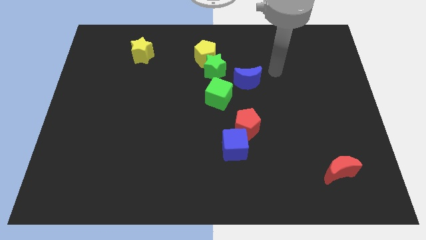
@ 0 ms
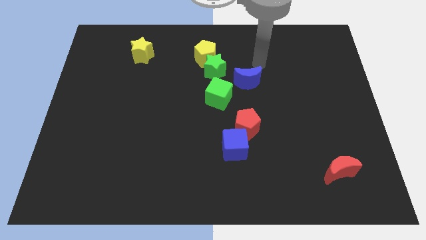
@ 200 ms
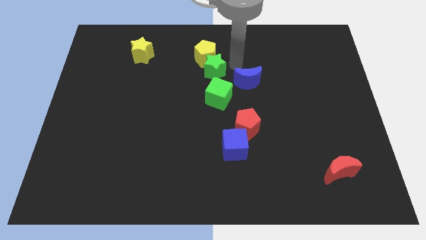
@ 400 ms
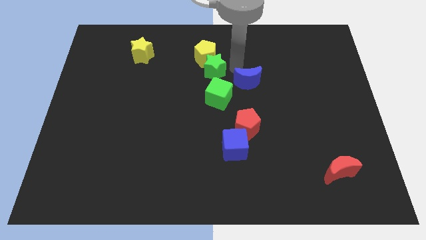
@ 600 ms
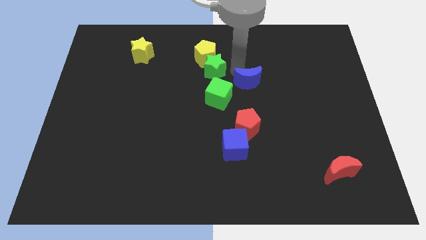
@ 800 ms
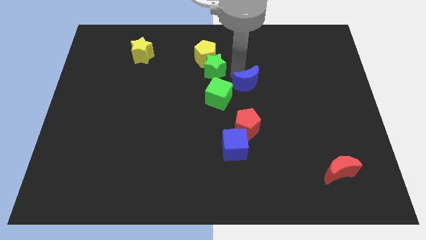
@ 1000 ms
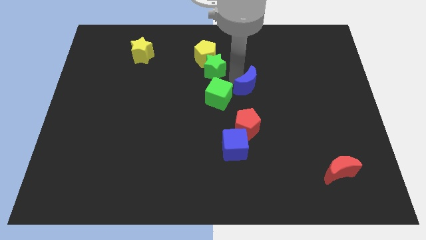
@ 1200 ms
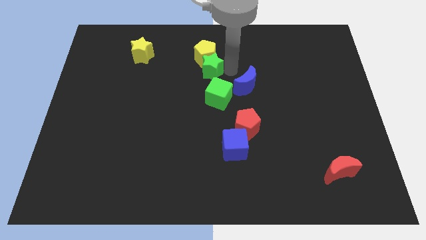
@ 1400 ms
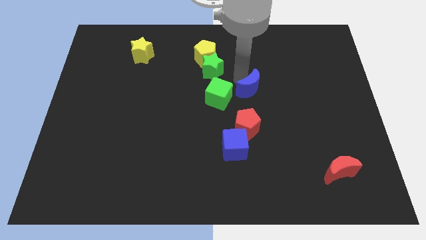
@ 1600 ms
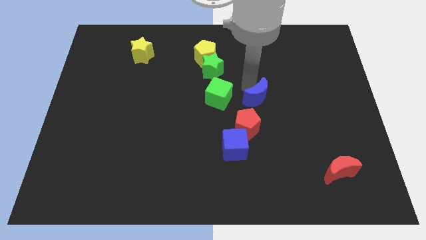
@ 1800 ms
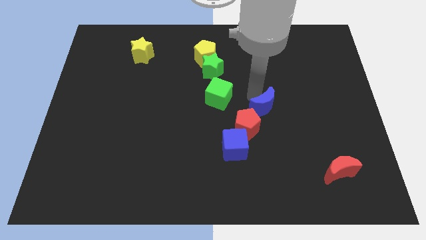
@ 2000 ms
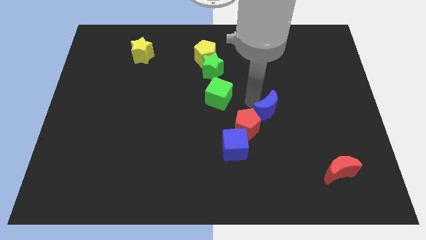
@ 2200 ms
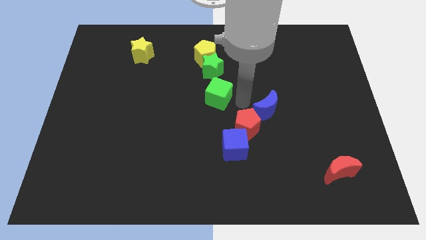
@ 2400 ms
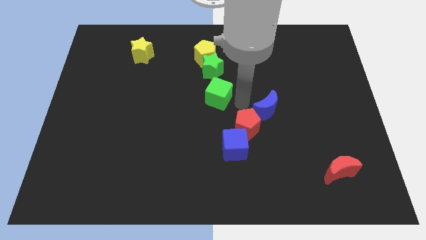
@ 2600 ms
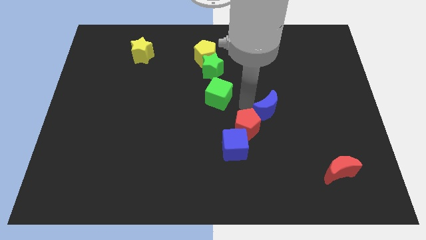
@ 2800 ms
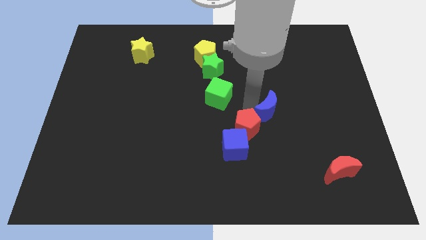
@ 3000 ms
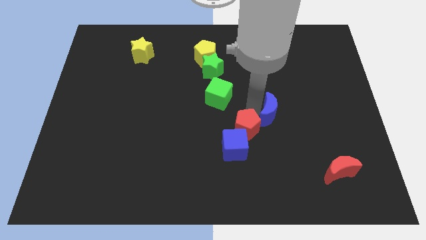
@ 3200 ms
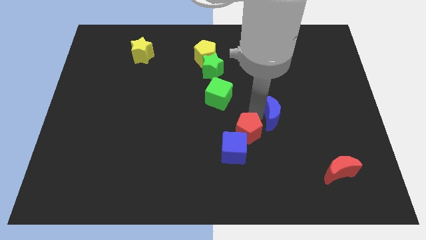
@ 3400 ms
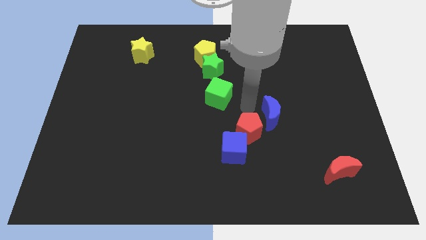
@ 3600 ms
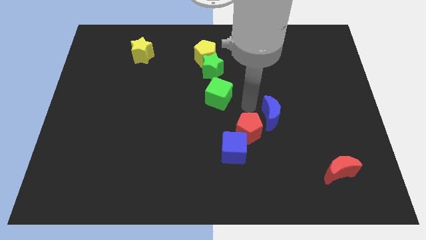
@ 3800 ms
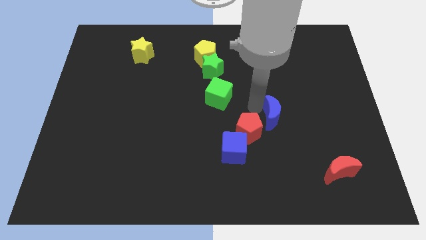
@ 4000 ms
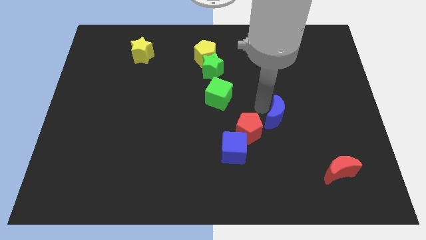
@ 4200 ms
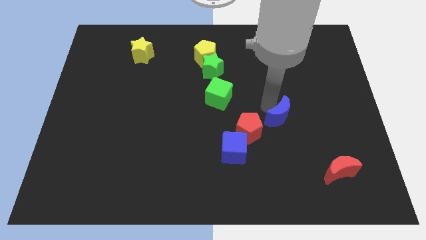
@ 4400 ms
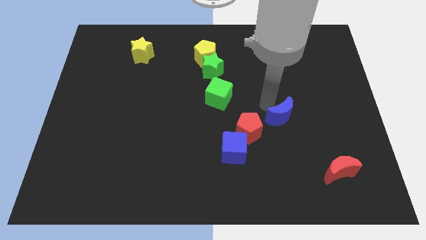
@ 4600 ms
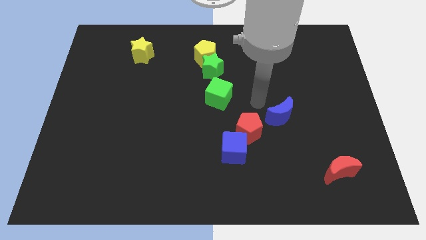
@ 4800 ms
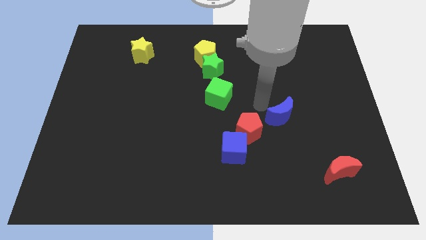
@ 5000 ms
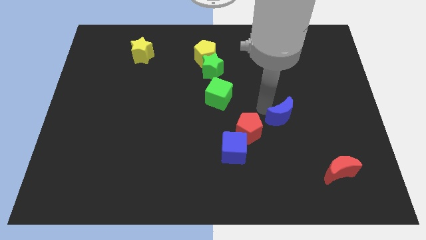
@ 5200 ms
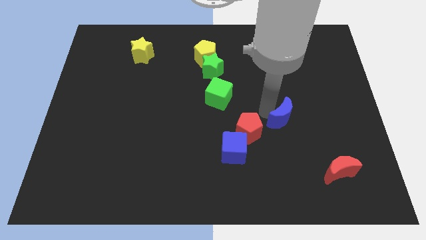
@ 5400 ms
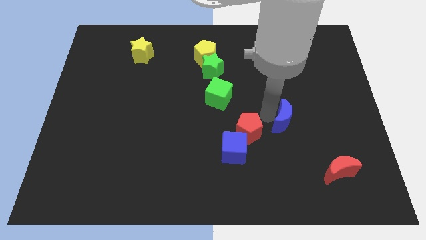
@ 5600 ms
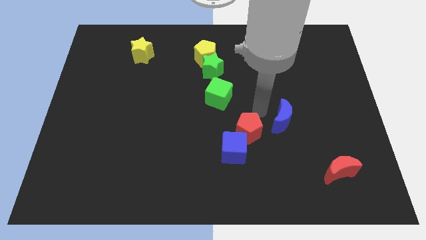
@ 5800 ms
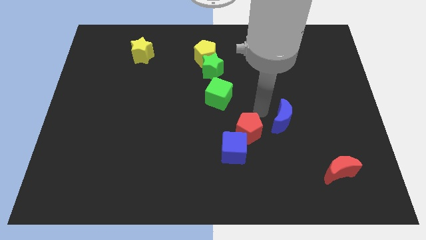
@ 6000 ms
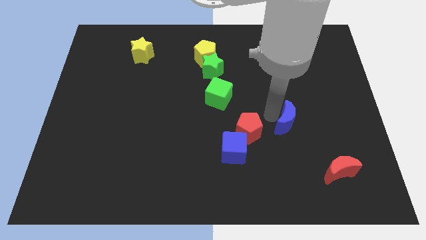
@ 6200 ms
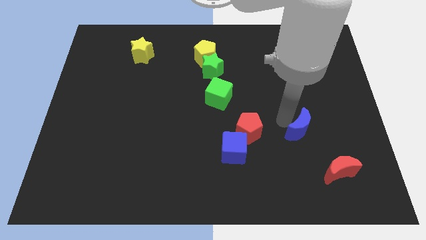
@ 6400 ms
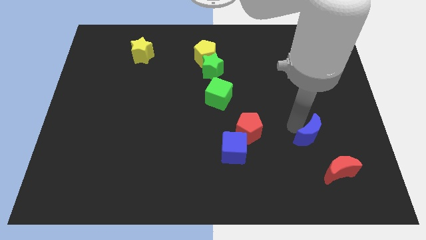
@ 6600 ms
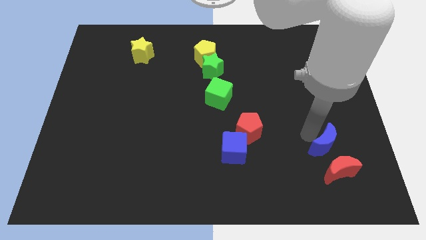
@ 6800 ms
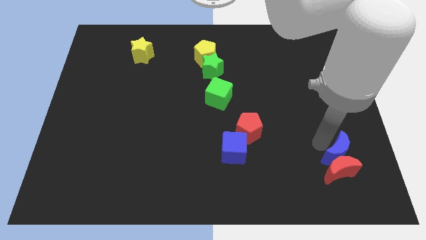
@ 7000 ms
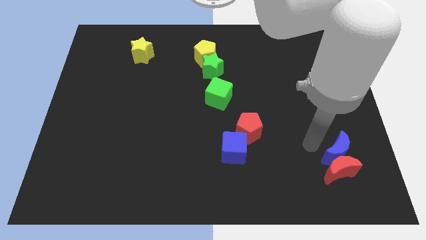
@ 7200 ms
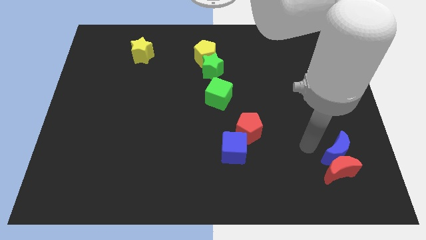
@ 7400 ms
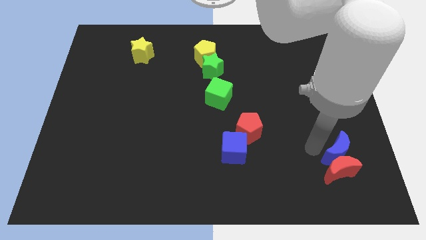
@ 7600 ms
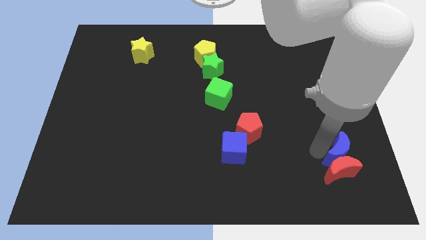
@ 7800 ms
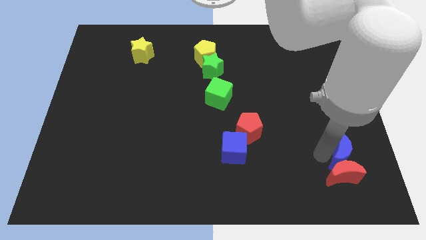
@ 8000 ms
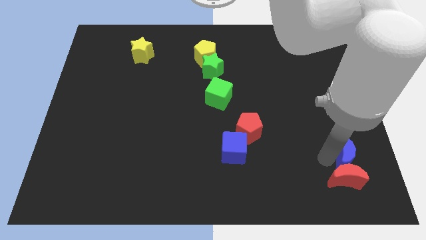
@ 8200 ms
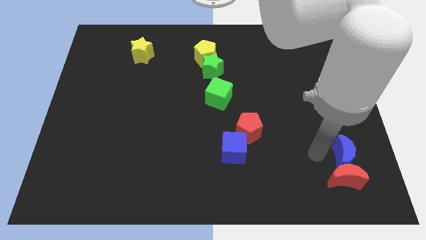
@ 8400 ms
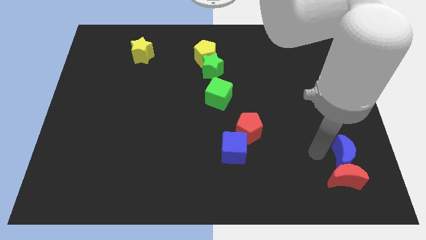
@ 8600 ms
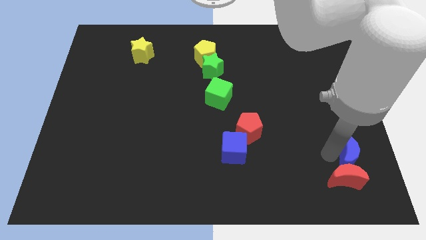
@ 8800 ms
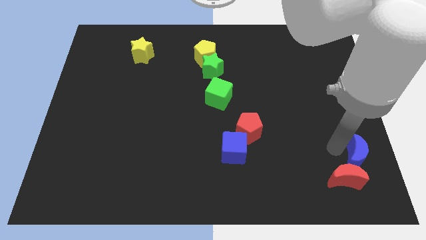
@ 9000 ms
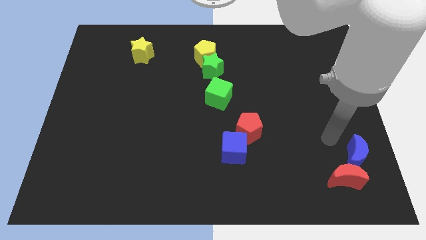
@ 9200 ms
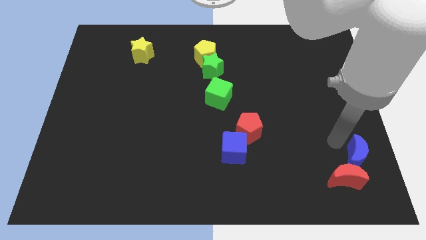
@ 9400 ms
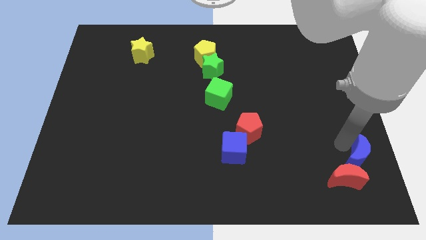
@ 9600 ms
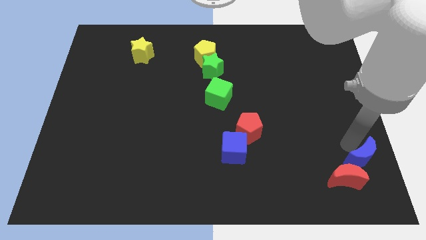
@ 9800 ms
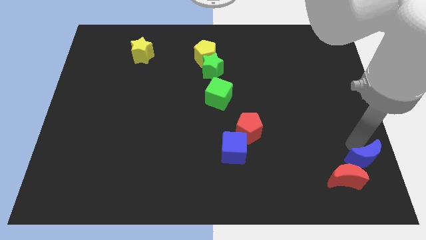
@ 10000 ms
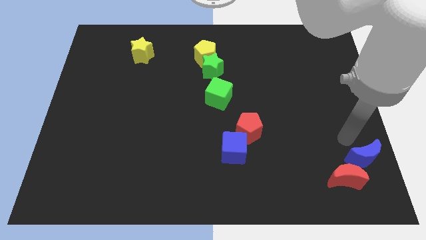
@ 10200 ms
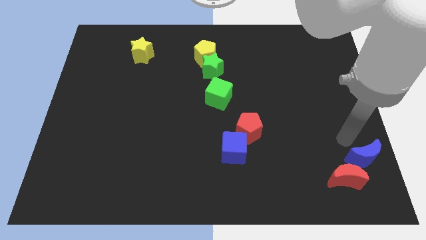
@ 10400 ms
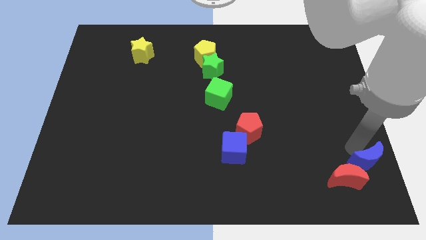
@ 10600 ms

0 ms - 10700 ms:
put the blue moon to the bottom right

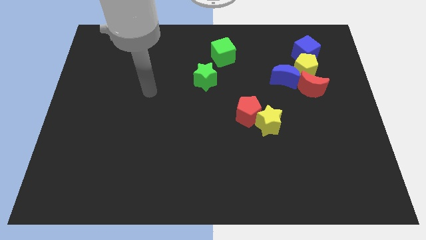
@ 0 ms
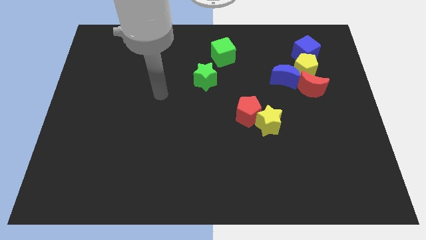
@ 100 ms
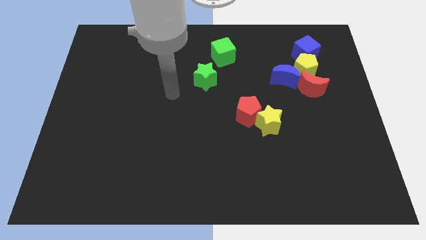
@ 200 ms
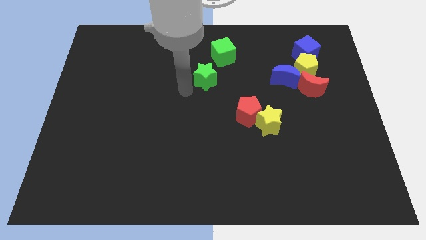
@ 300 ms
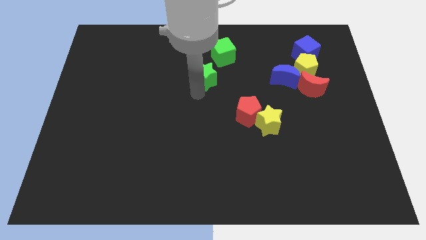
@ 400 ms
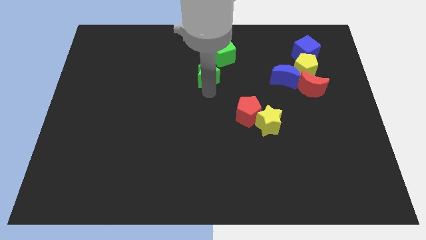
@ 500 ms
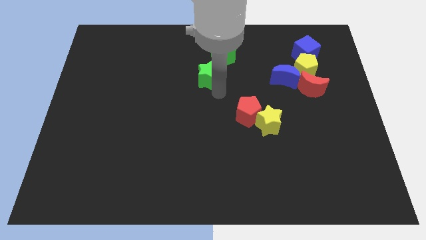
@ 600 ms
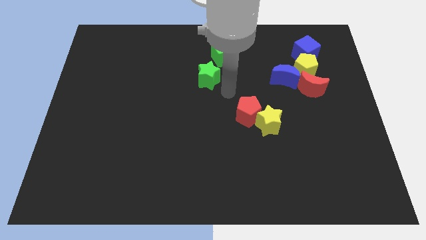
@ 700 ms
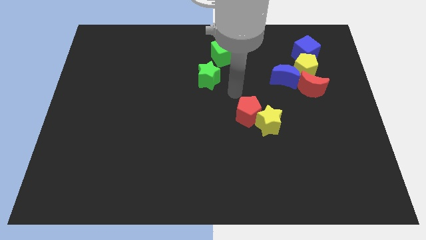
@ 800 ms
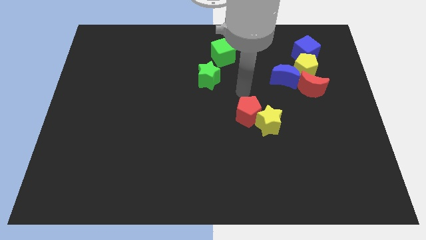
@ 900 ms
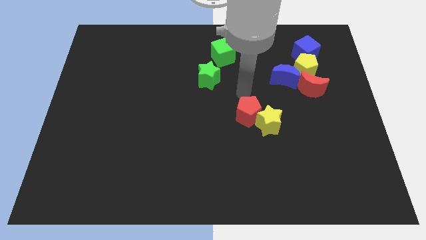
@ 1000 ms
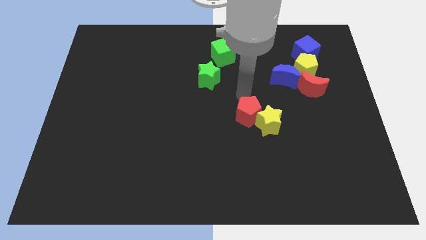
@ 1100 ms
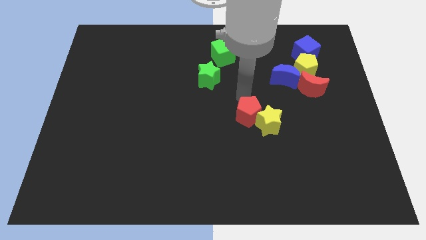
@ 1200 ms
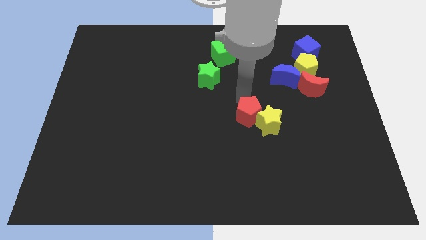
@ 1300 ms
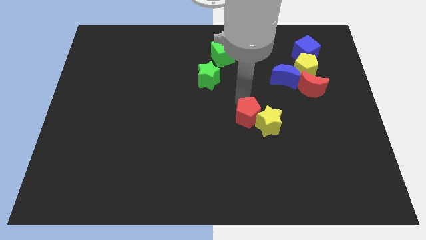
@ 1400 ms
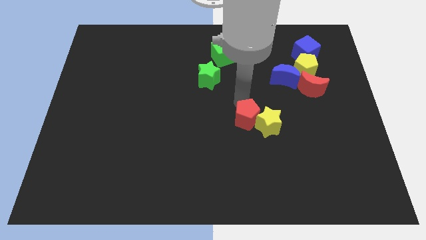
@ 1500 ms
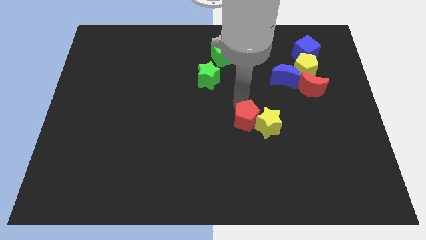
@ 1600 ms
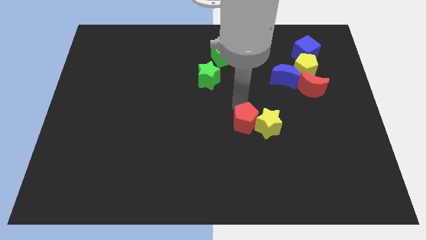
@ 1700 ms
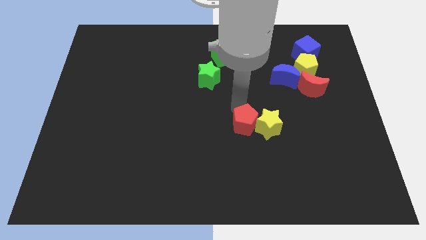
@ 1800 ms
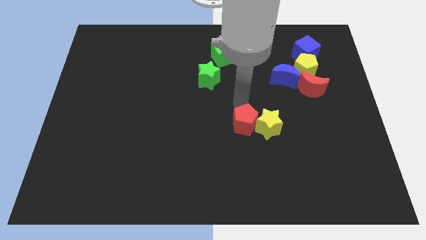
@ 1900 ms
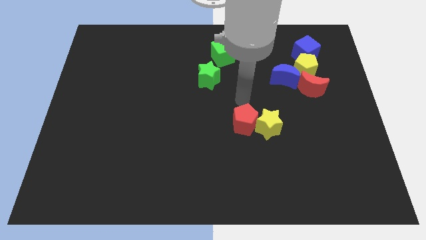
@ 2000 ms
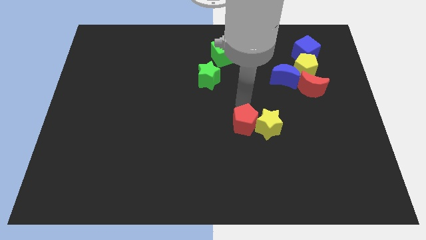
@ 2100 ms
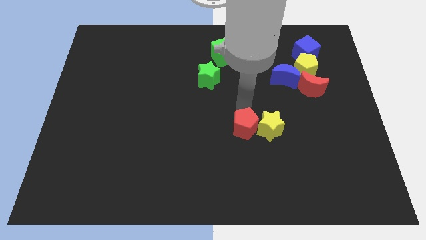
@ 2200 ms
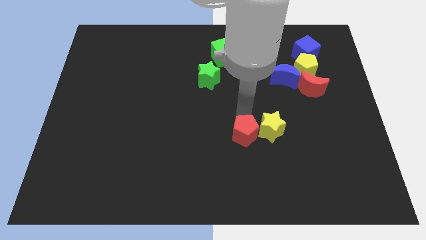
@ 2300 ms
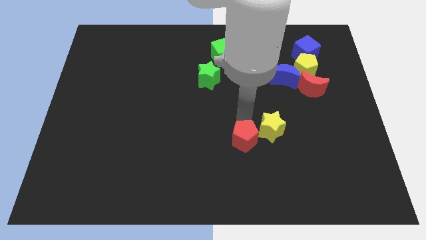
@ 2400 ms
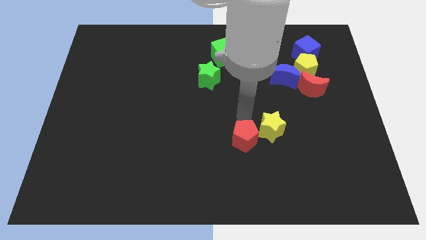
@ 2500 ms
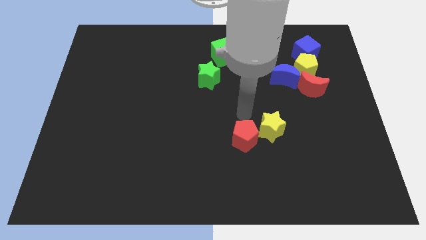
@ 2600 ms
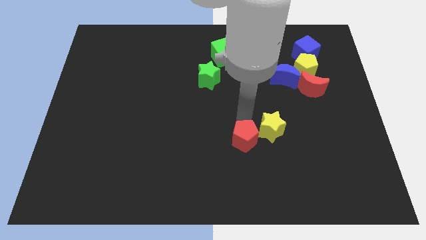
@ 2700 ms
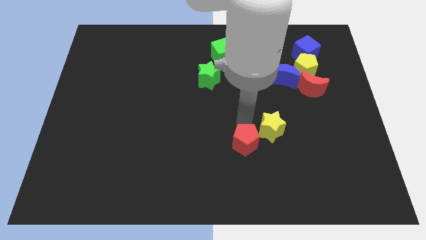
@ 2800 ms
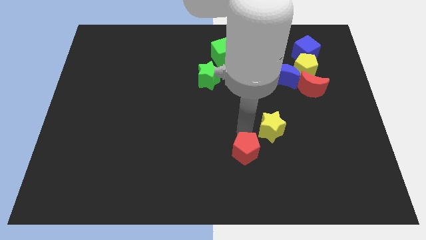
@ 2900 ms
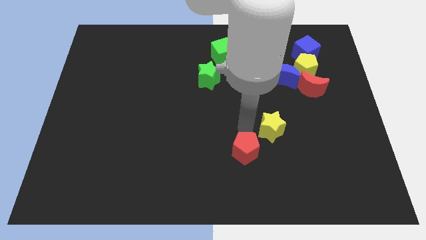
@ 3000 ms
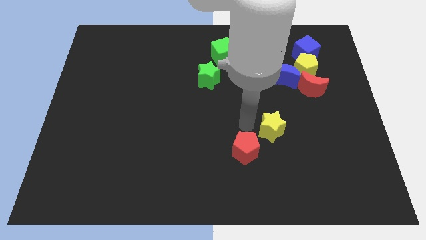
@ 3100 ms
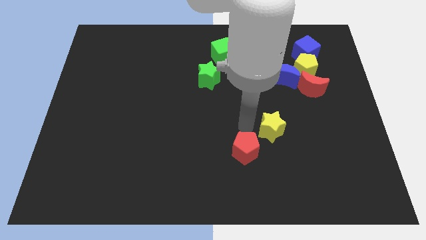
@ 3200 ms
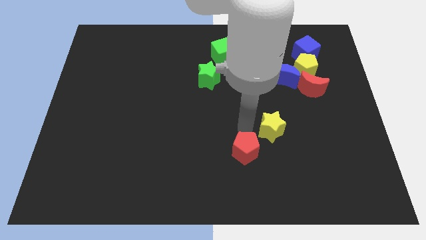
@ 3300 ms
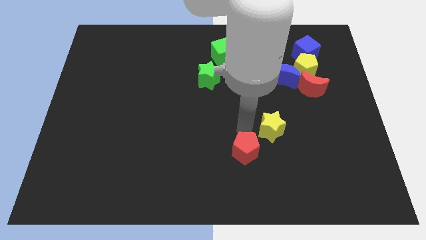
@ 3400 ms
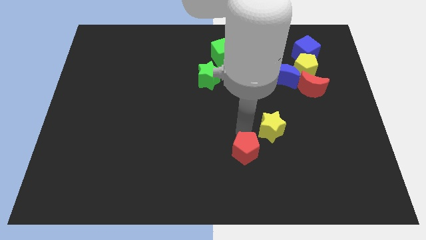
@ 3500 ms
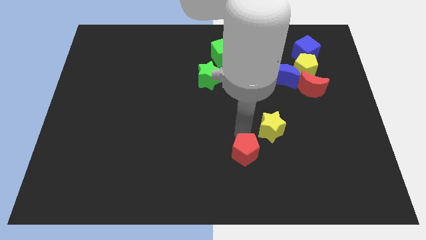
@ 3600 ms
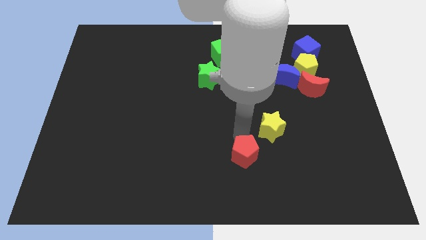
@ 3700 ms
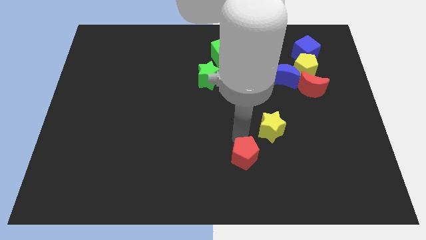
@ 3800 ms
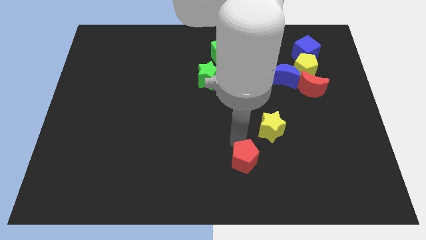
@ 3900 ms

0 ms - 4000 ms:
slide the red pentagon to the bottom
